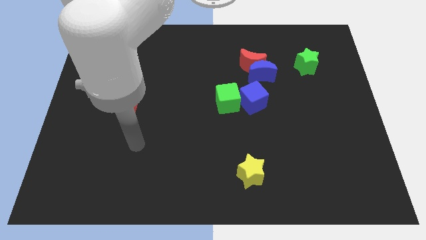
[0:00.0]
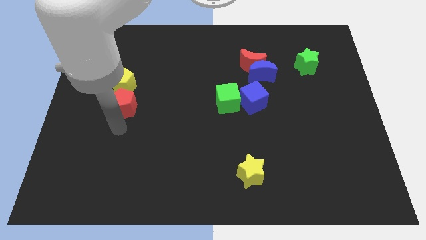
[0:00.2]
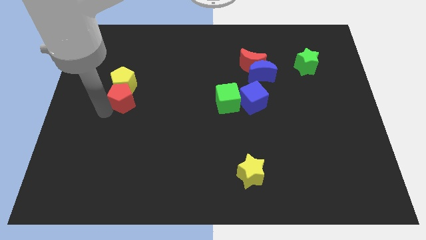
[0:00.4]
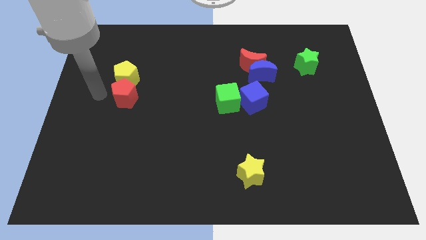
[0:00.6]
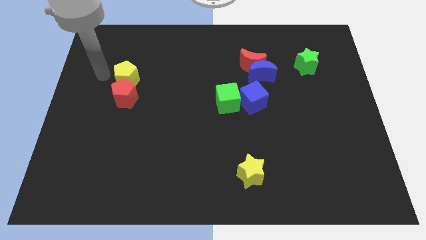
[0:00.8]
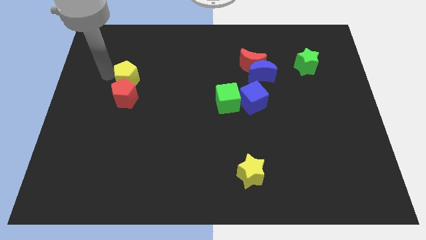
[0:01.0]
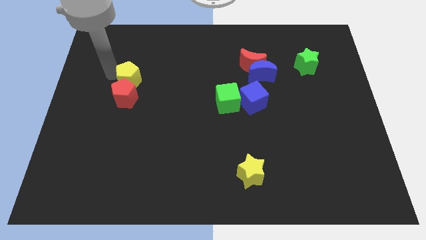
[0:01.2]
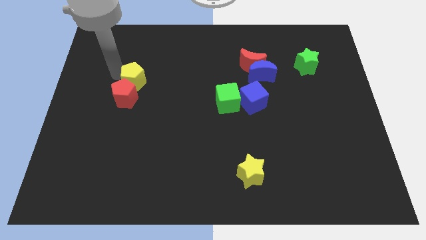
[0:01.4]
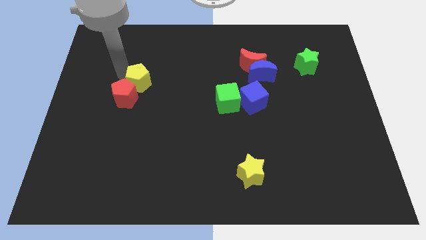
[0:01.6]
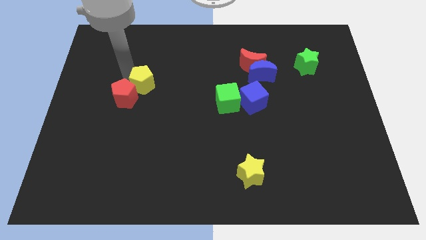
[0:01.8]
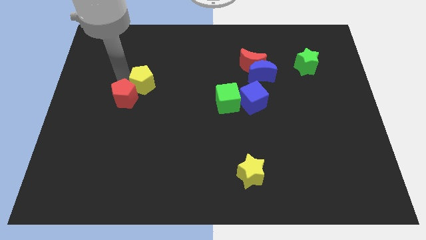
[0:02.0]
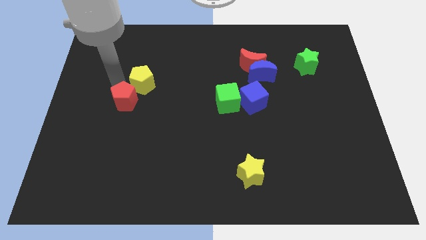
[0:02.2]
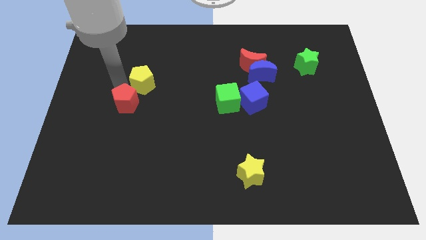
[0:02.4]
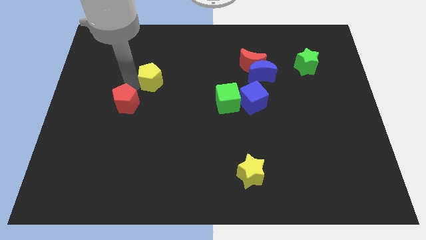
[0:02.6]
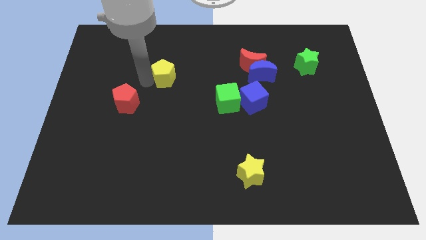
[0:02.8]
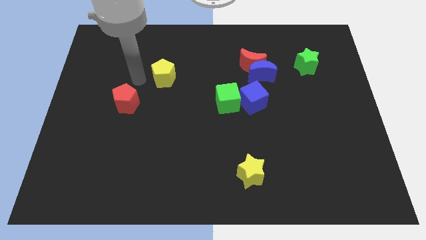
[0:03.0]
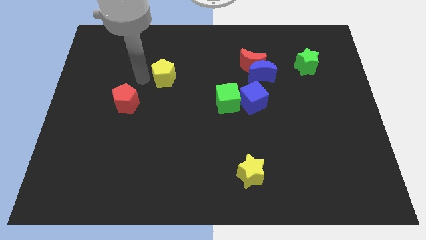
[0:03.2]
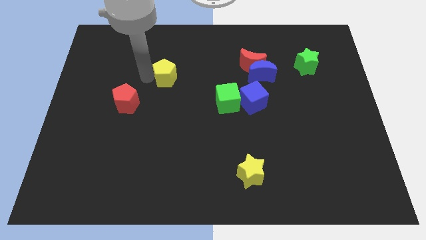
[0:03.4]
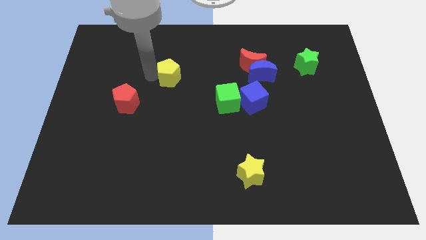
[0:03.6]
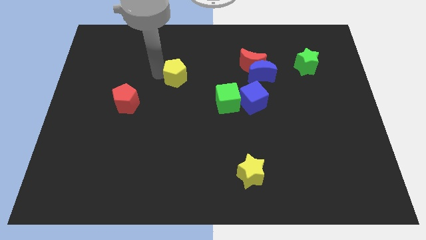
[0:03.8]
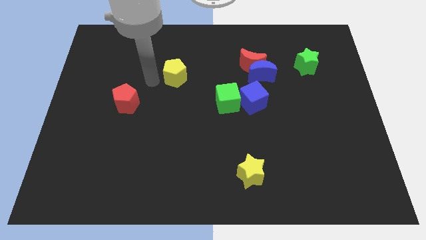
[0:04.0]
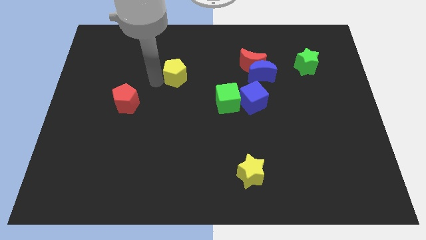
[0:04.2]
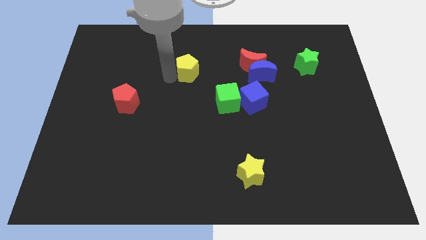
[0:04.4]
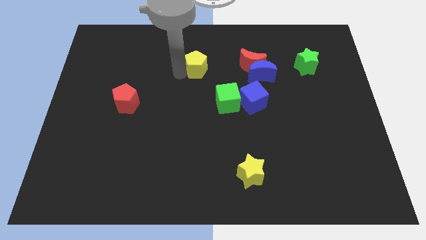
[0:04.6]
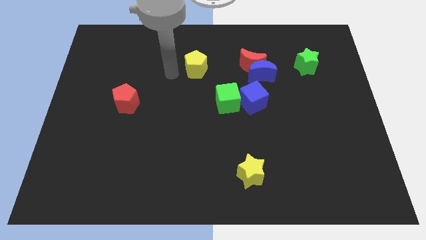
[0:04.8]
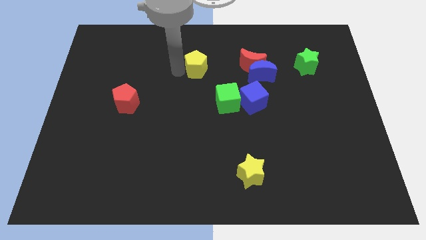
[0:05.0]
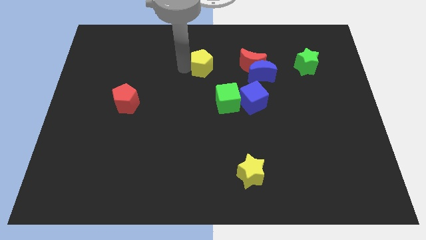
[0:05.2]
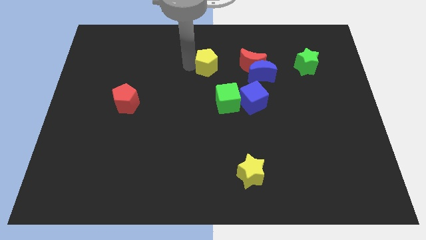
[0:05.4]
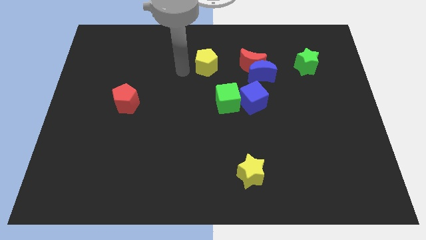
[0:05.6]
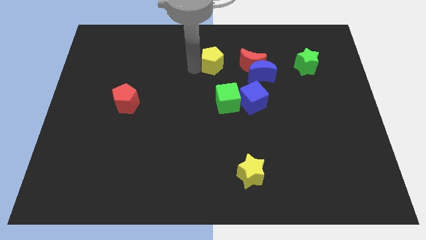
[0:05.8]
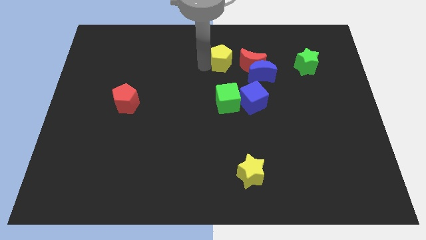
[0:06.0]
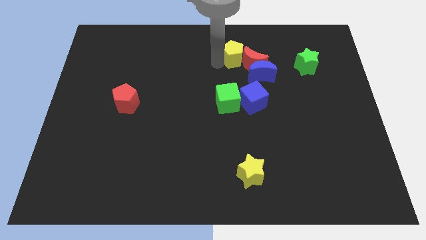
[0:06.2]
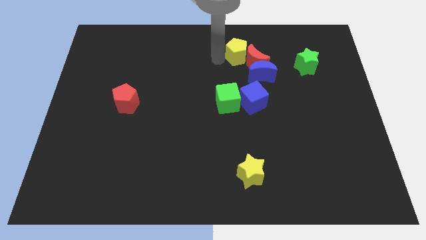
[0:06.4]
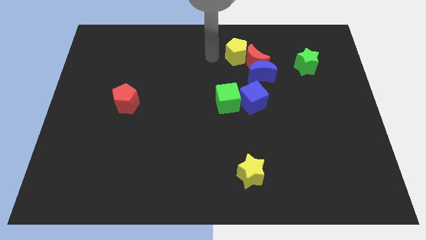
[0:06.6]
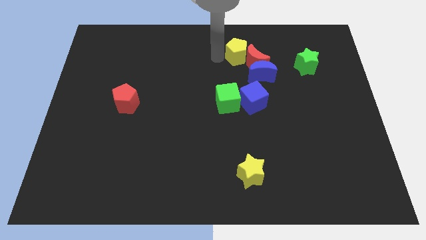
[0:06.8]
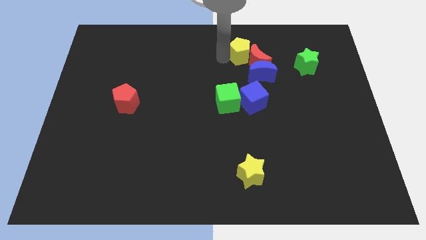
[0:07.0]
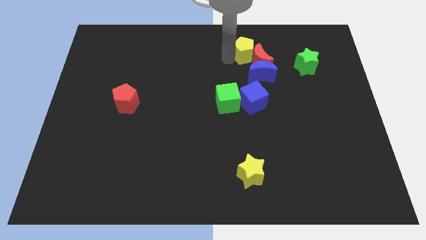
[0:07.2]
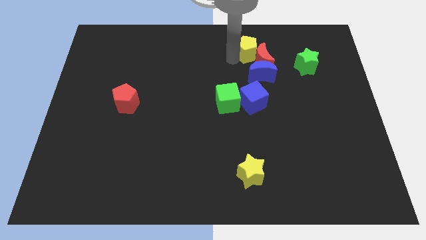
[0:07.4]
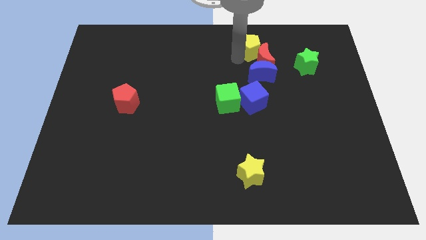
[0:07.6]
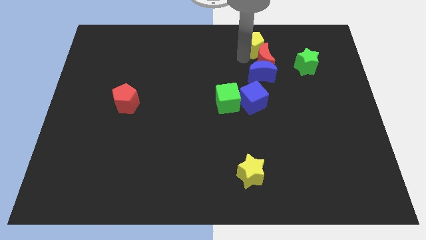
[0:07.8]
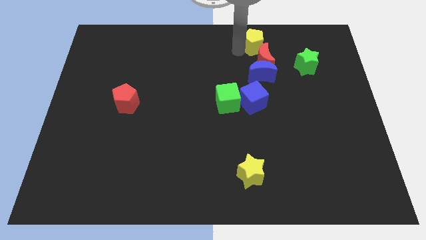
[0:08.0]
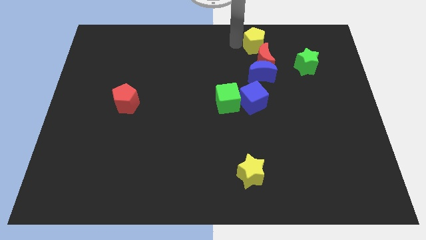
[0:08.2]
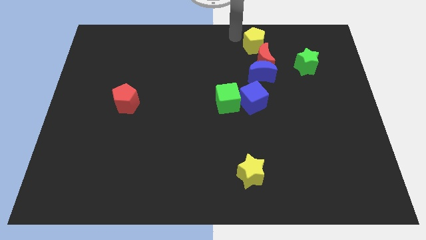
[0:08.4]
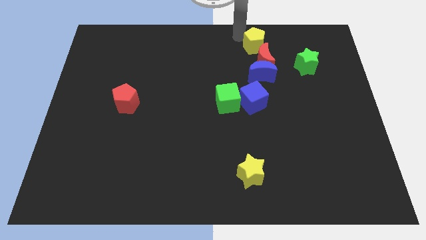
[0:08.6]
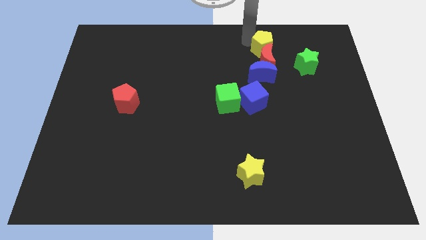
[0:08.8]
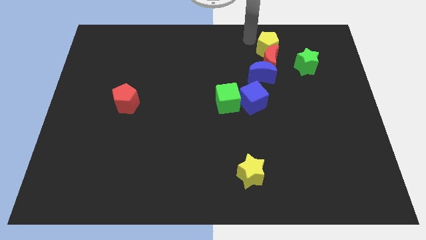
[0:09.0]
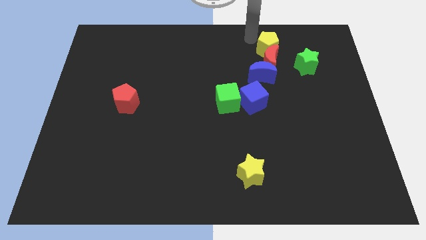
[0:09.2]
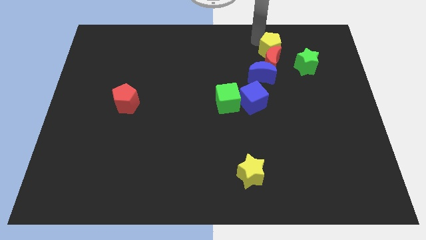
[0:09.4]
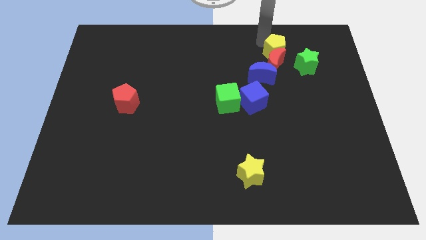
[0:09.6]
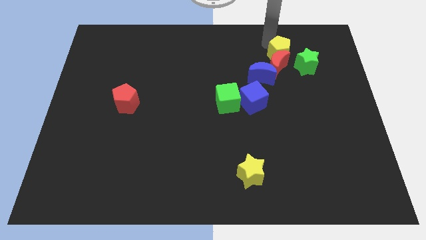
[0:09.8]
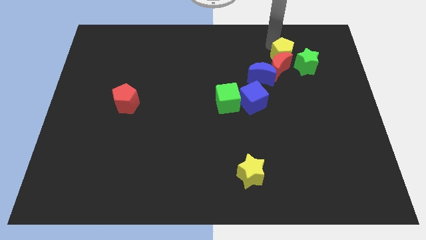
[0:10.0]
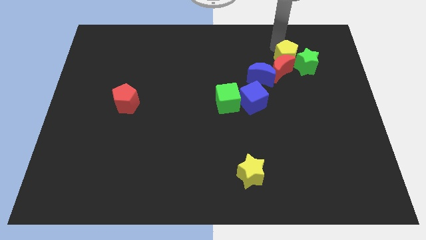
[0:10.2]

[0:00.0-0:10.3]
put the yellow pentagon next to the green star

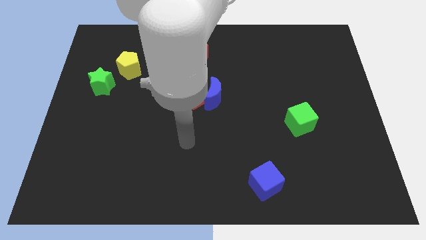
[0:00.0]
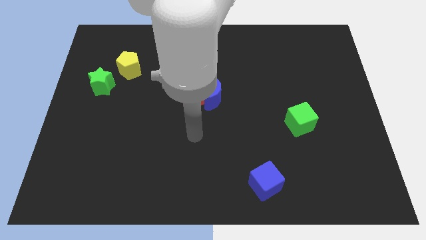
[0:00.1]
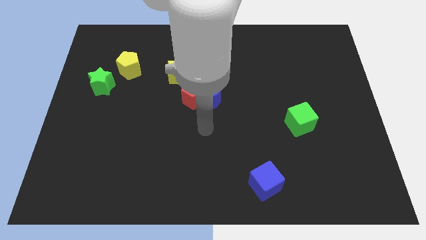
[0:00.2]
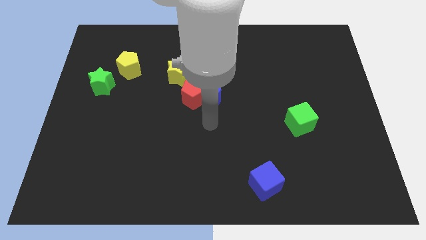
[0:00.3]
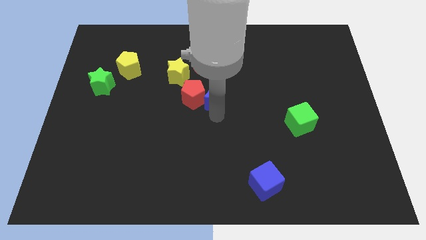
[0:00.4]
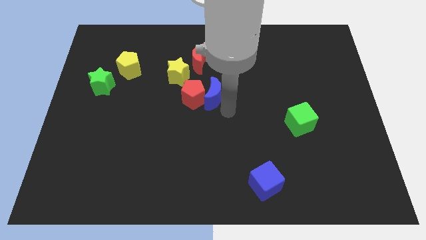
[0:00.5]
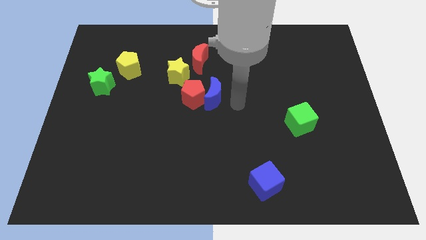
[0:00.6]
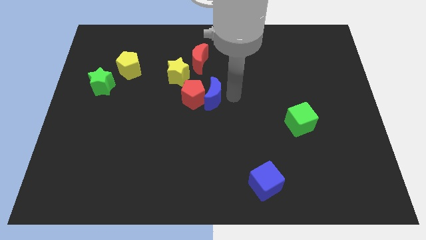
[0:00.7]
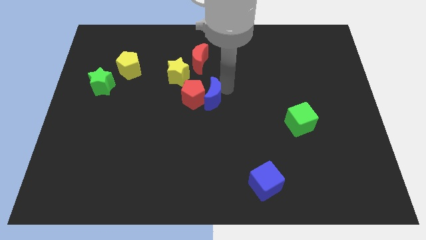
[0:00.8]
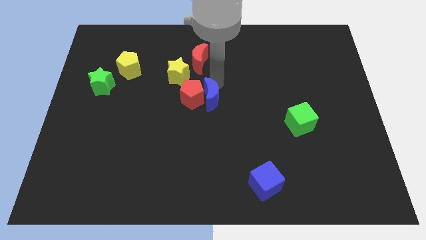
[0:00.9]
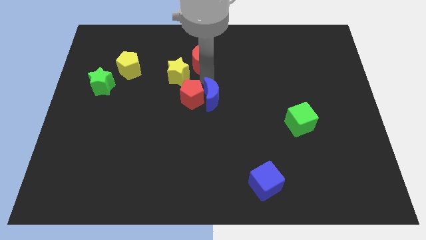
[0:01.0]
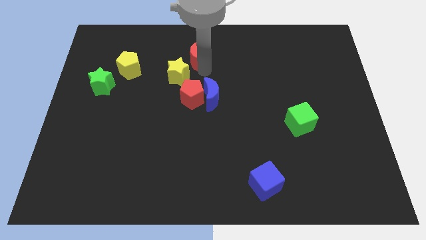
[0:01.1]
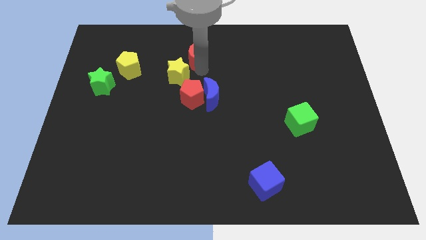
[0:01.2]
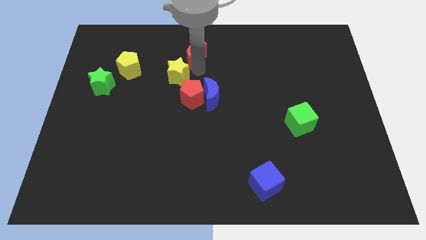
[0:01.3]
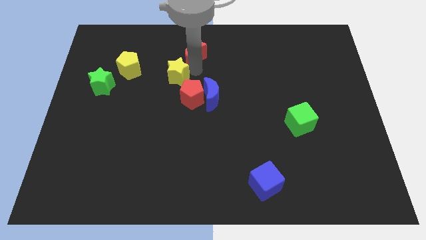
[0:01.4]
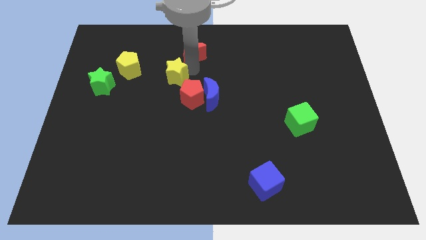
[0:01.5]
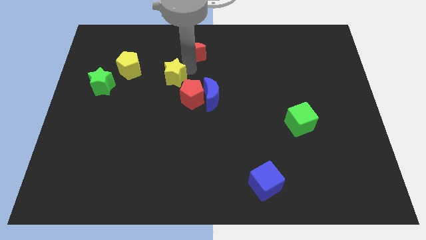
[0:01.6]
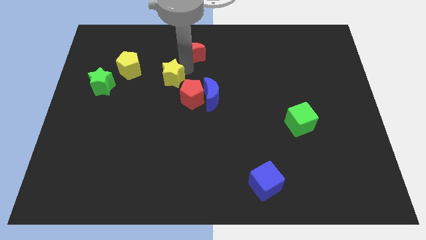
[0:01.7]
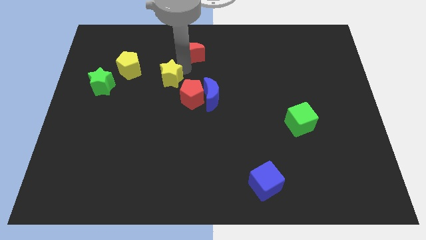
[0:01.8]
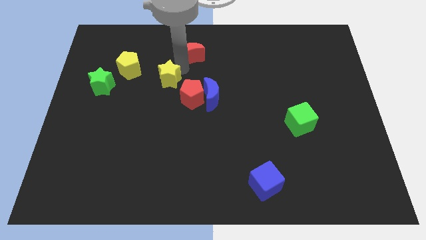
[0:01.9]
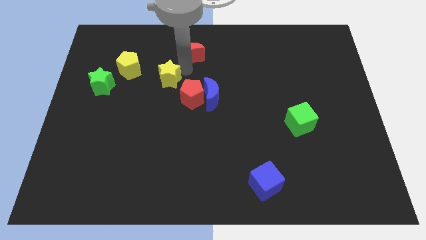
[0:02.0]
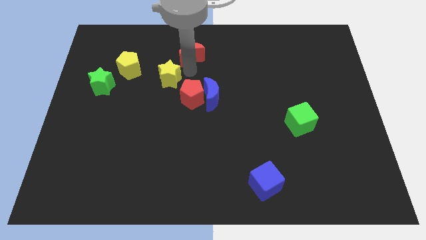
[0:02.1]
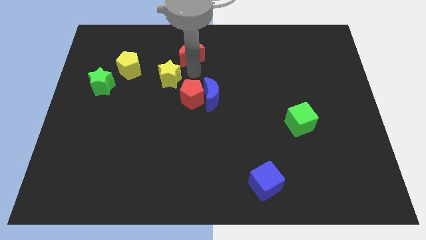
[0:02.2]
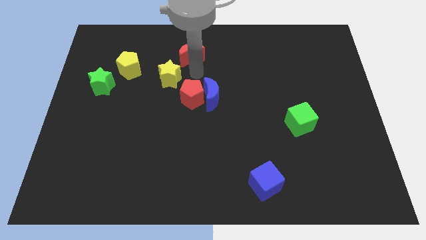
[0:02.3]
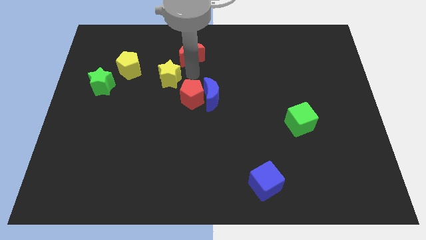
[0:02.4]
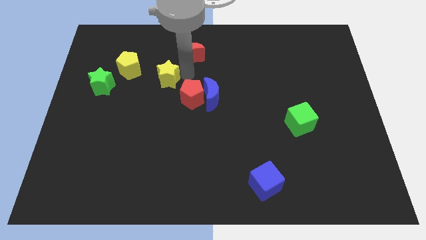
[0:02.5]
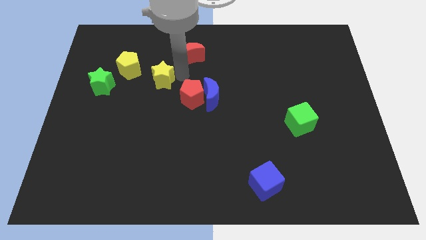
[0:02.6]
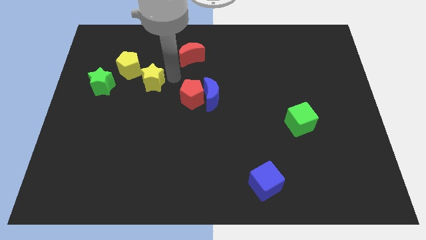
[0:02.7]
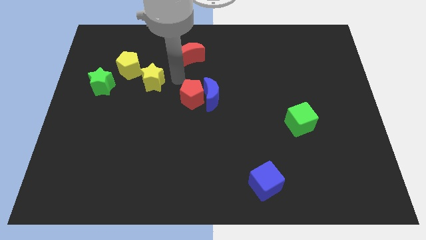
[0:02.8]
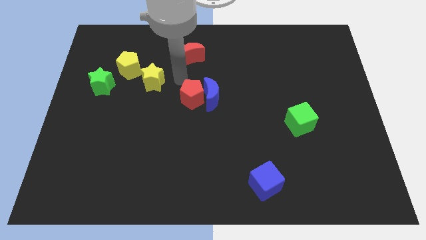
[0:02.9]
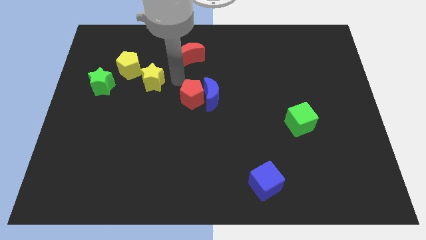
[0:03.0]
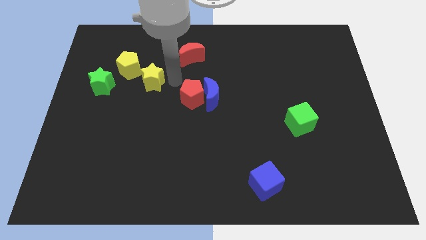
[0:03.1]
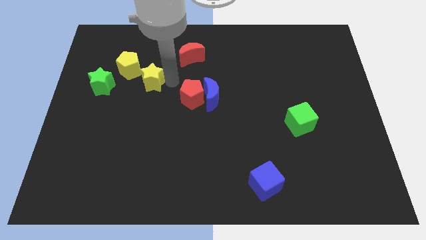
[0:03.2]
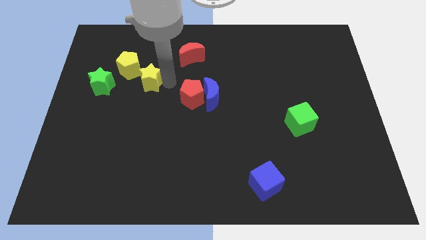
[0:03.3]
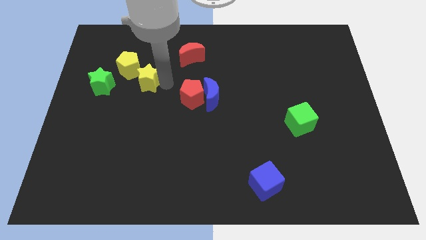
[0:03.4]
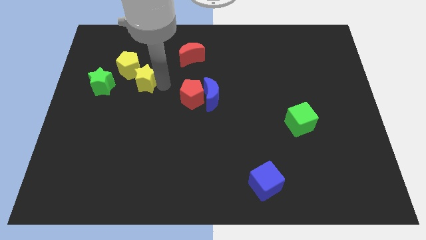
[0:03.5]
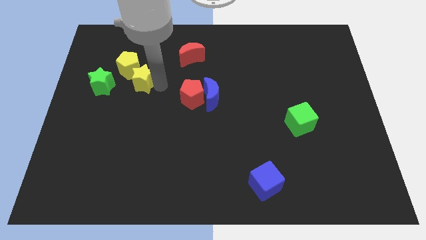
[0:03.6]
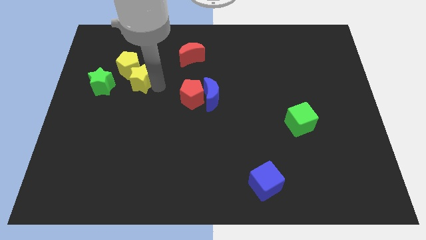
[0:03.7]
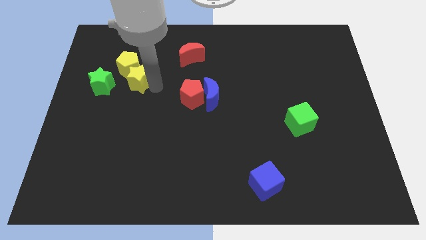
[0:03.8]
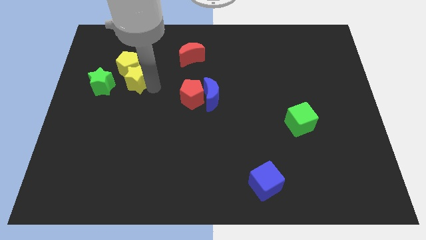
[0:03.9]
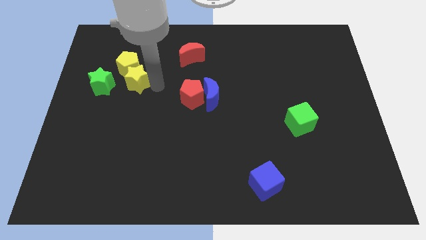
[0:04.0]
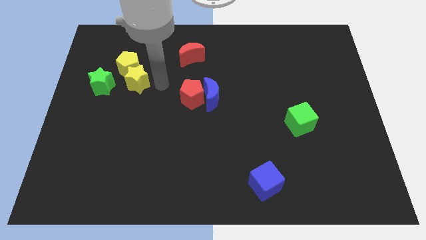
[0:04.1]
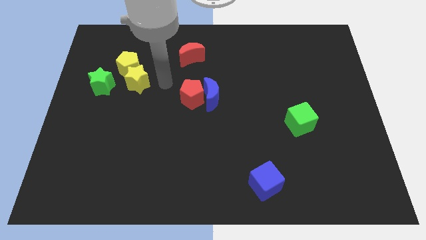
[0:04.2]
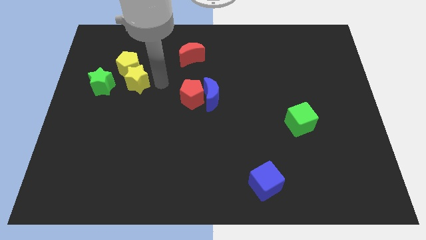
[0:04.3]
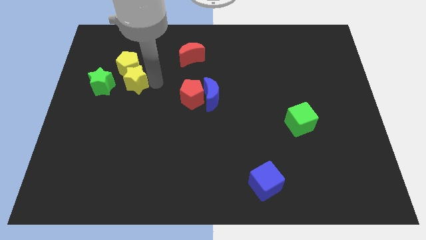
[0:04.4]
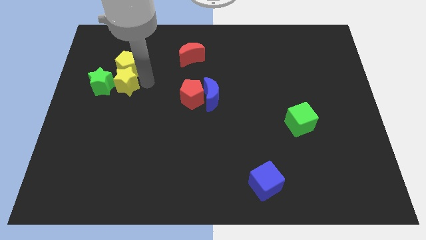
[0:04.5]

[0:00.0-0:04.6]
put the yellow star to the green star
